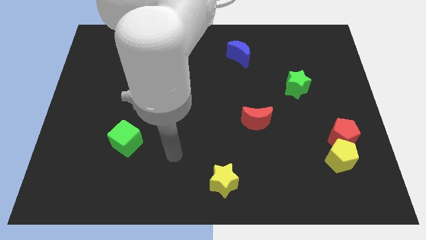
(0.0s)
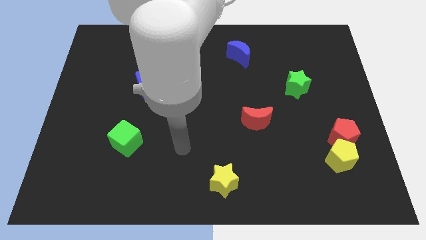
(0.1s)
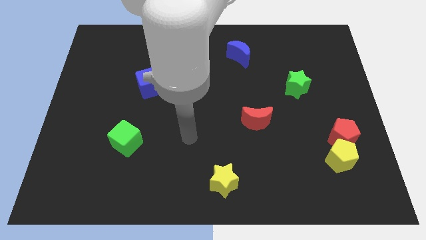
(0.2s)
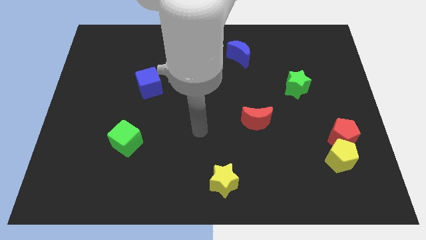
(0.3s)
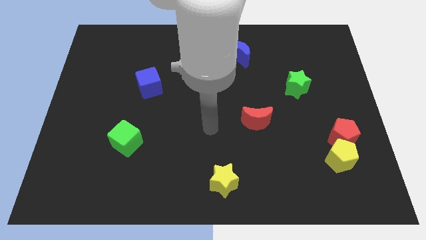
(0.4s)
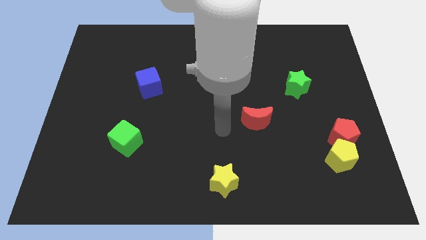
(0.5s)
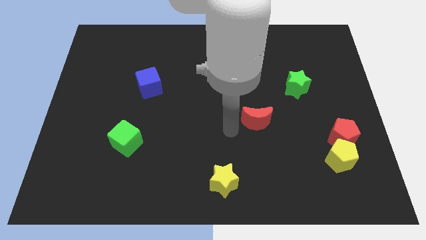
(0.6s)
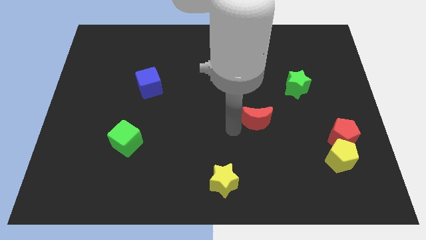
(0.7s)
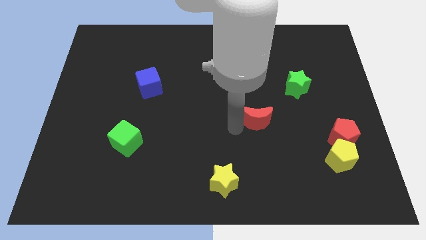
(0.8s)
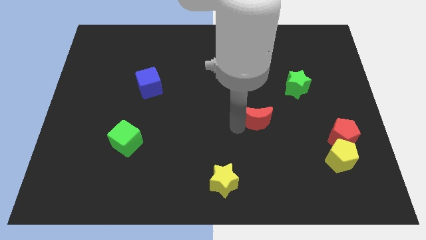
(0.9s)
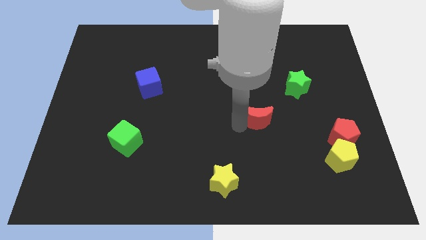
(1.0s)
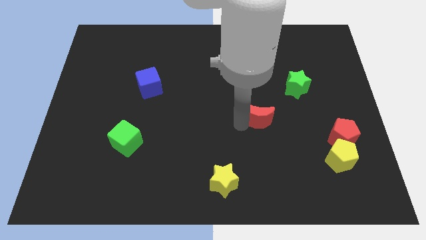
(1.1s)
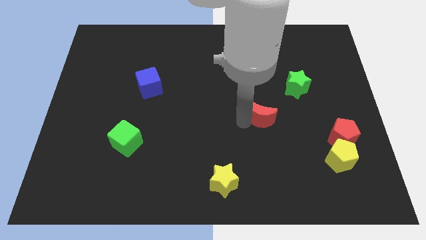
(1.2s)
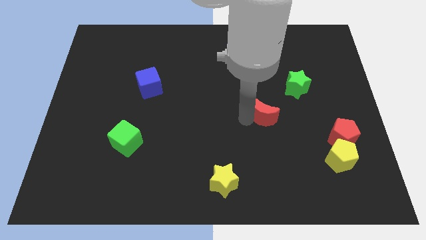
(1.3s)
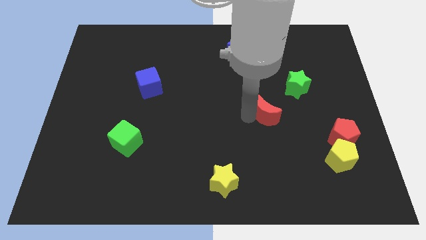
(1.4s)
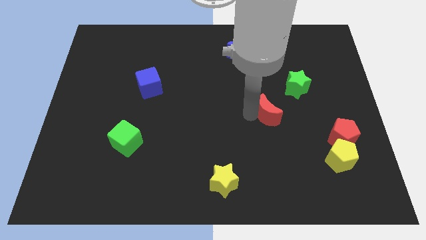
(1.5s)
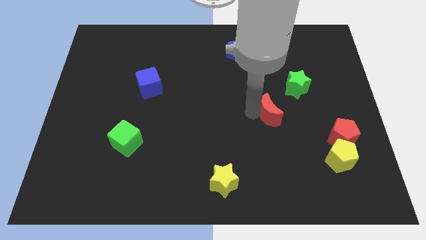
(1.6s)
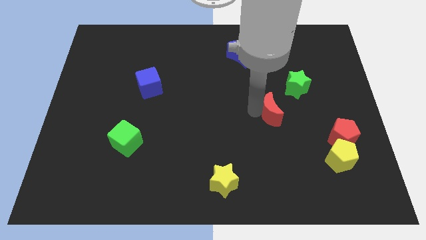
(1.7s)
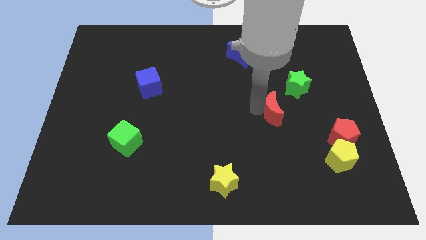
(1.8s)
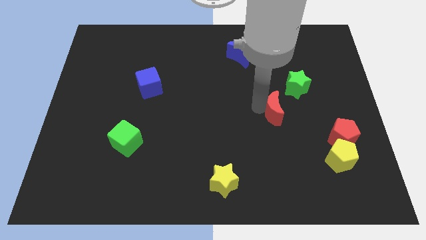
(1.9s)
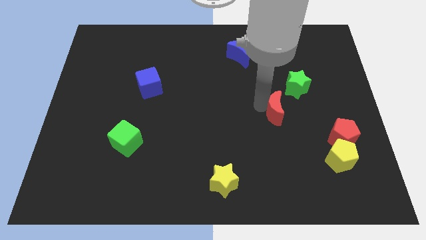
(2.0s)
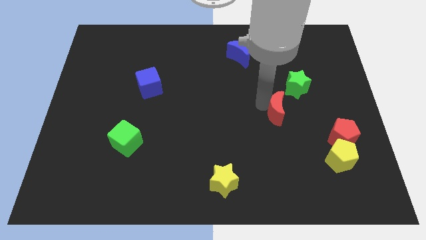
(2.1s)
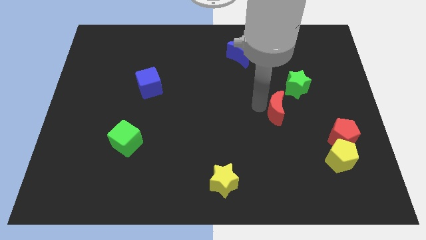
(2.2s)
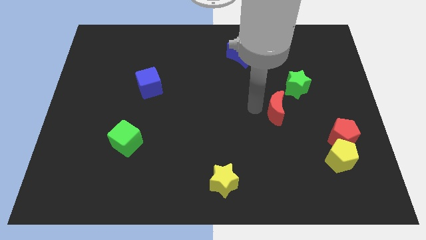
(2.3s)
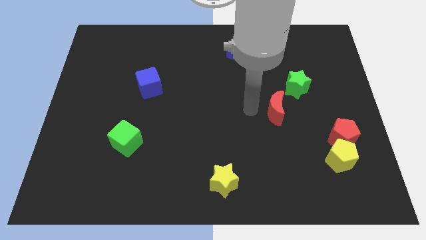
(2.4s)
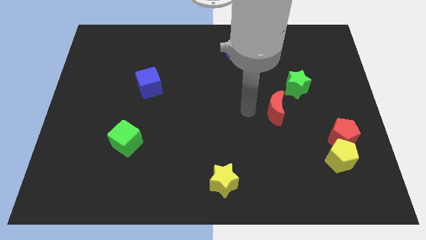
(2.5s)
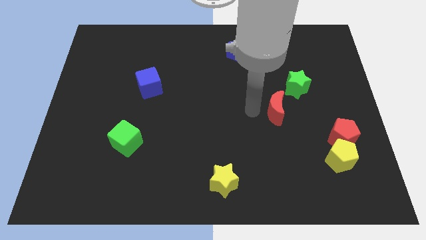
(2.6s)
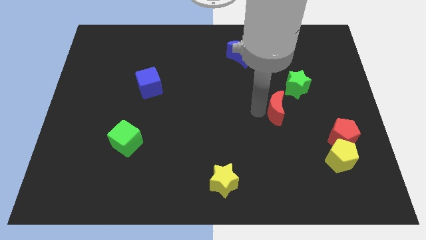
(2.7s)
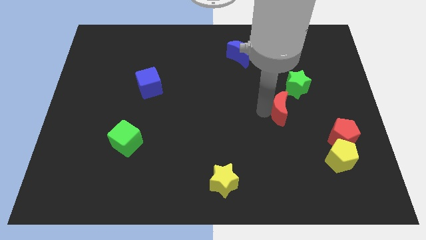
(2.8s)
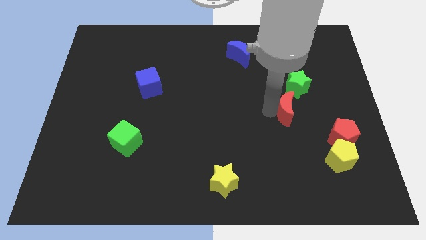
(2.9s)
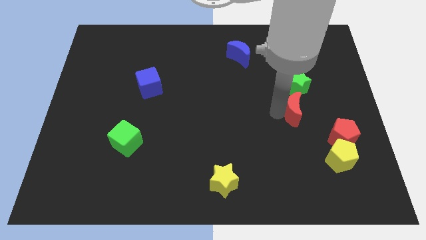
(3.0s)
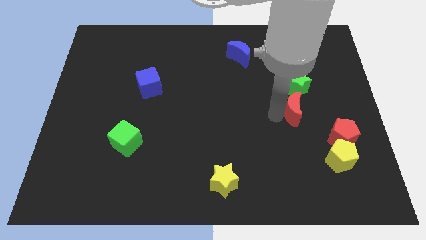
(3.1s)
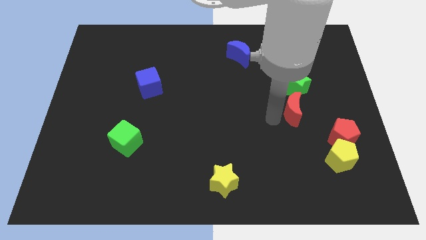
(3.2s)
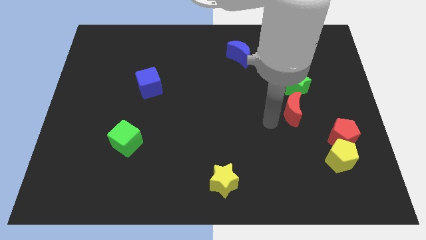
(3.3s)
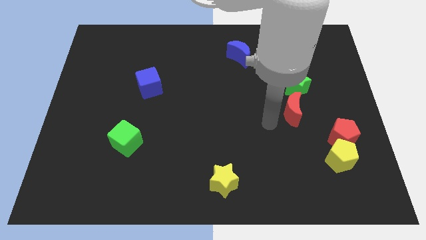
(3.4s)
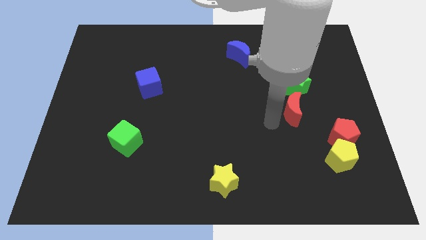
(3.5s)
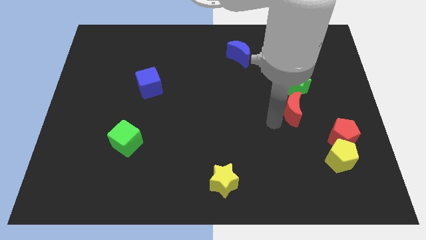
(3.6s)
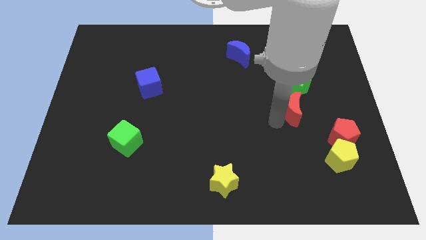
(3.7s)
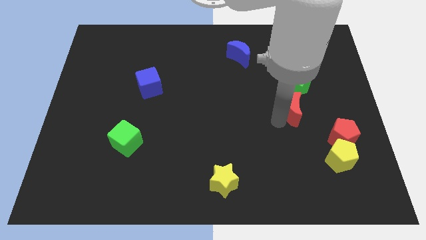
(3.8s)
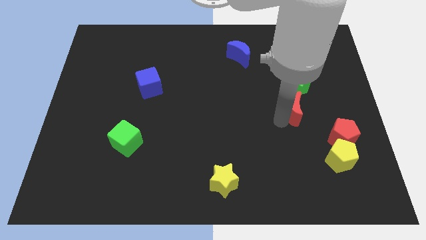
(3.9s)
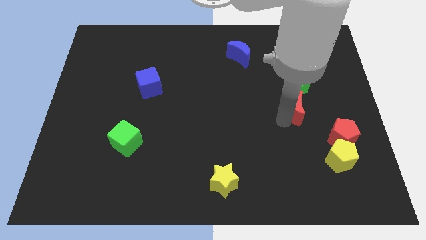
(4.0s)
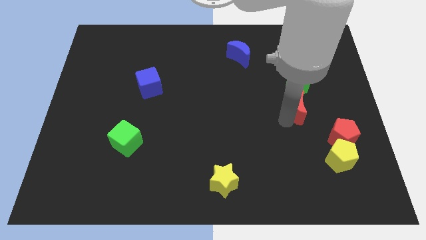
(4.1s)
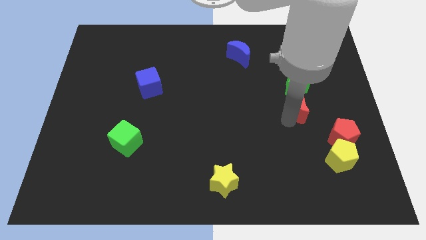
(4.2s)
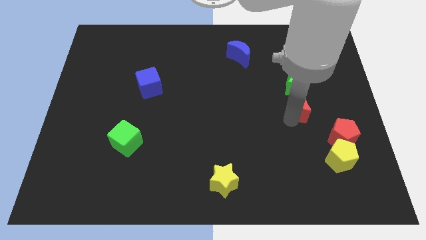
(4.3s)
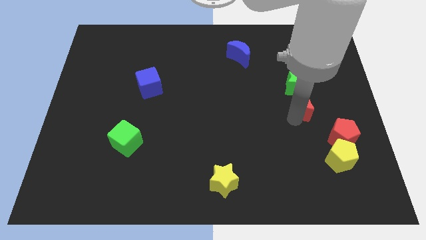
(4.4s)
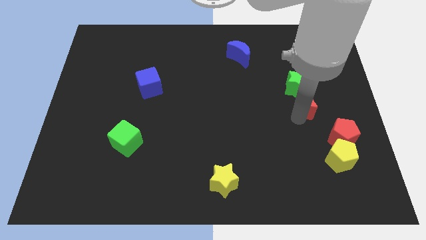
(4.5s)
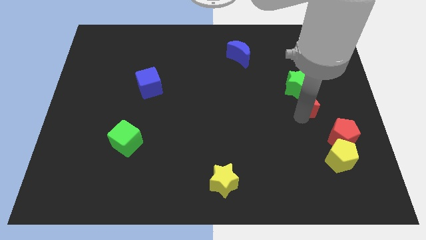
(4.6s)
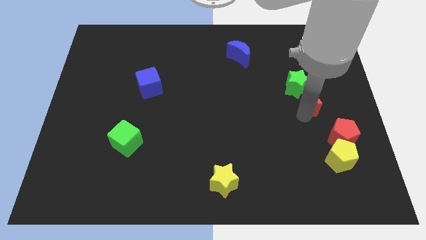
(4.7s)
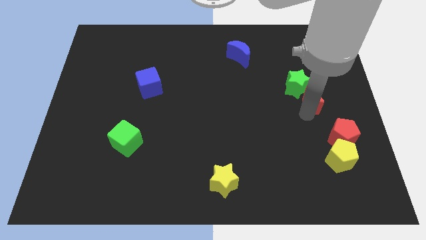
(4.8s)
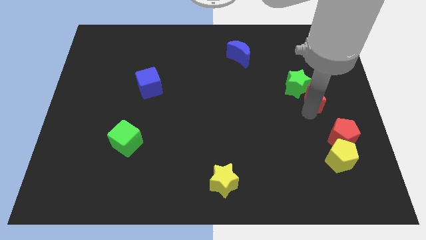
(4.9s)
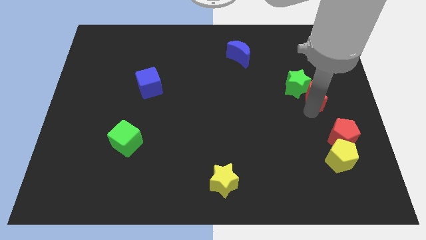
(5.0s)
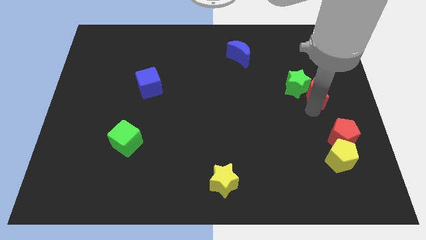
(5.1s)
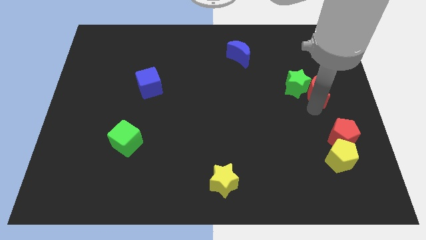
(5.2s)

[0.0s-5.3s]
move the red moon to the right side

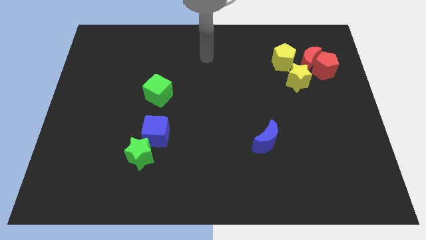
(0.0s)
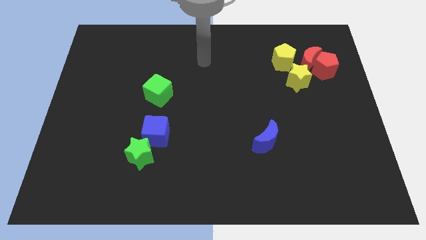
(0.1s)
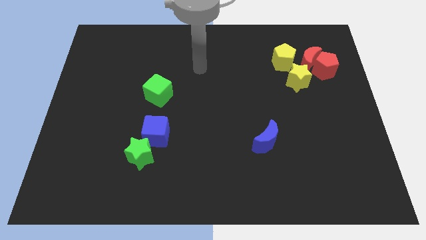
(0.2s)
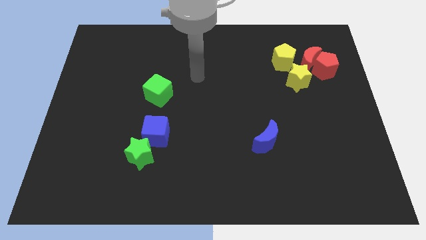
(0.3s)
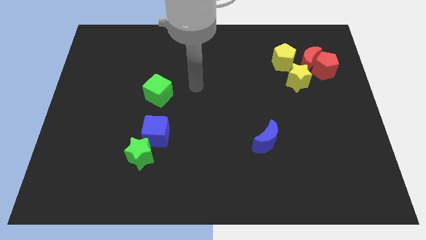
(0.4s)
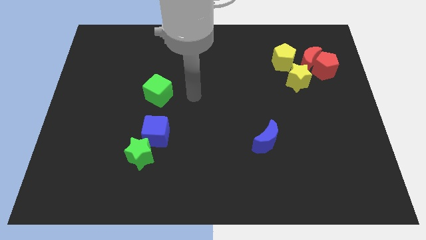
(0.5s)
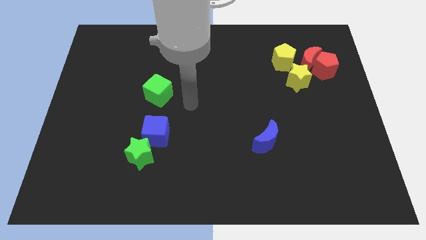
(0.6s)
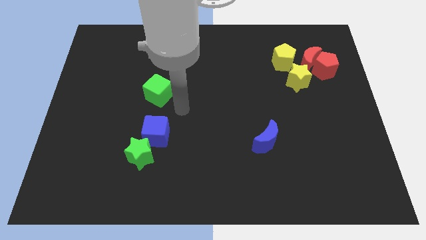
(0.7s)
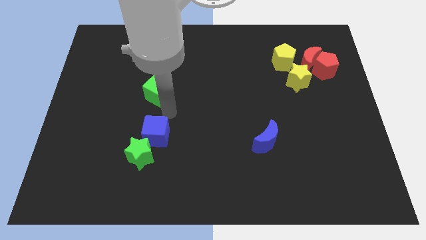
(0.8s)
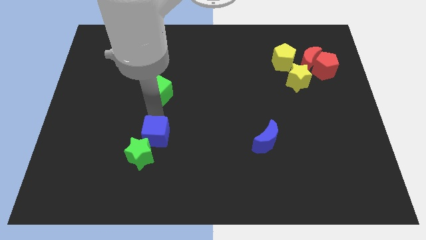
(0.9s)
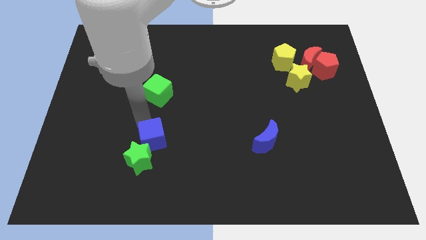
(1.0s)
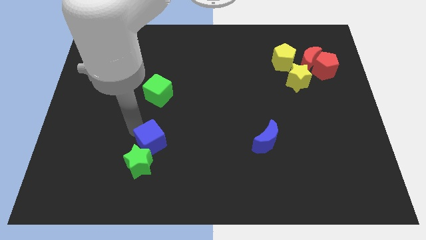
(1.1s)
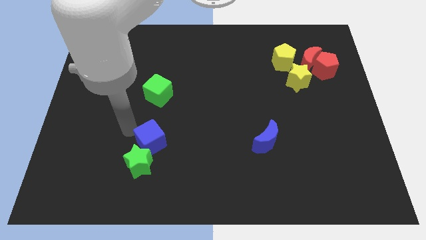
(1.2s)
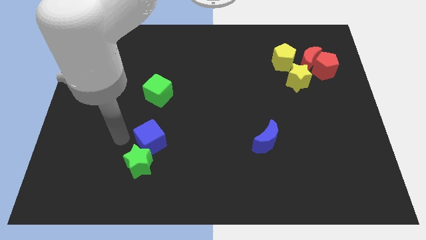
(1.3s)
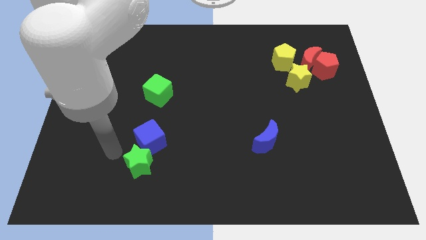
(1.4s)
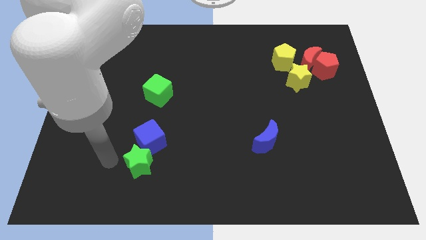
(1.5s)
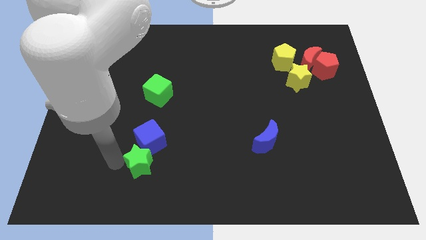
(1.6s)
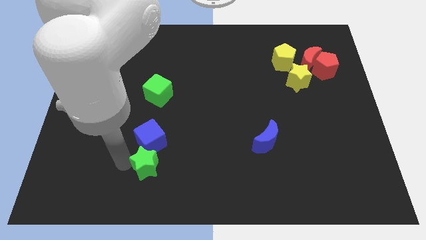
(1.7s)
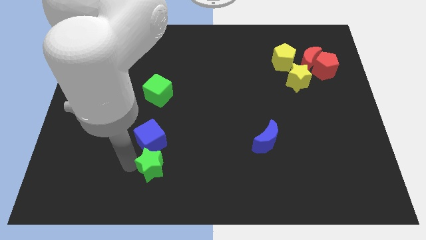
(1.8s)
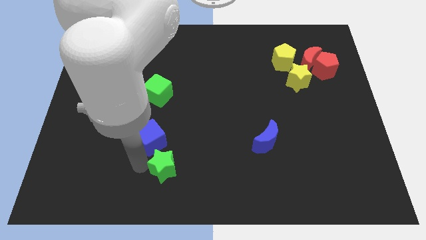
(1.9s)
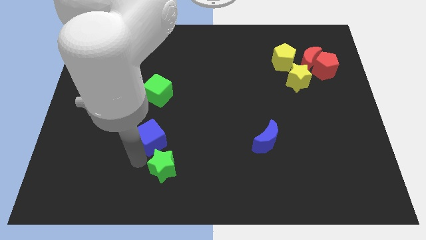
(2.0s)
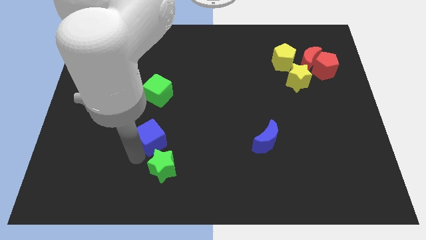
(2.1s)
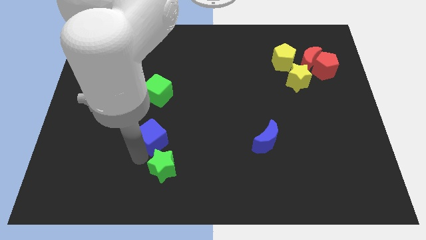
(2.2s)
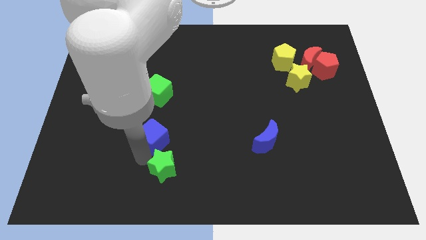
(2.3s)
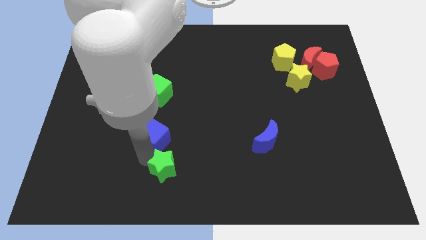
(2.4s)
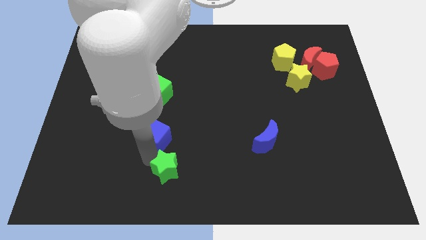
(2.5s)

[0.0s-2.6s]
push the green star to the bottom
